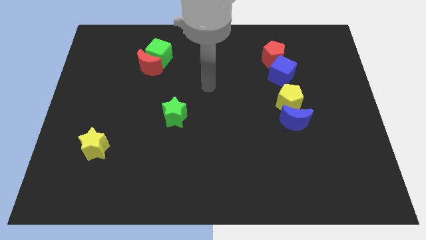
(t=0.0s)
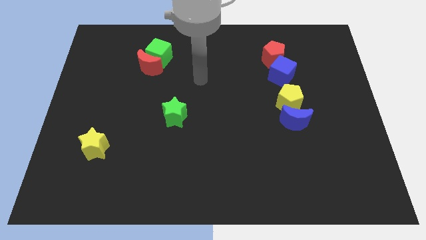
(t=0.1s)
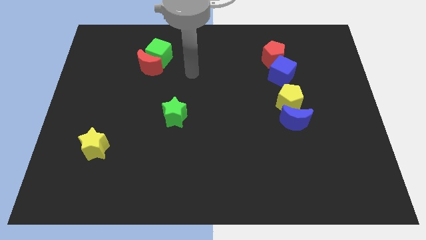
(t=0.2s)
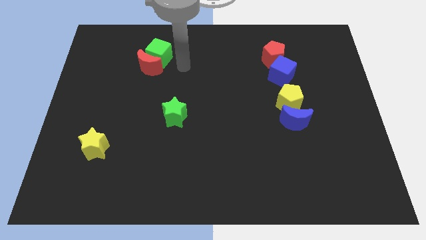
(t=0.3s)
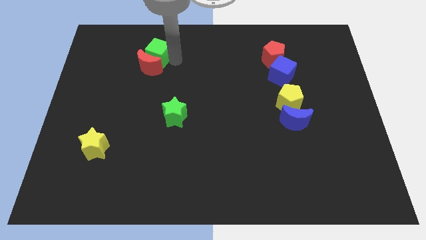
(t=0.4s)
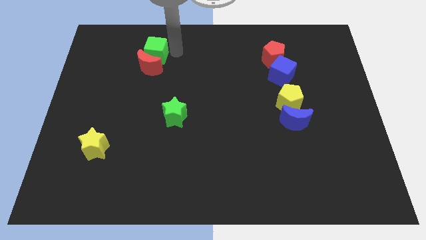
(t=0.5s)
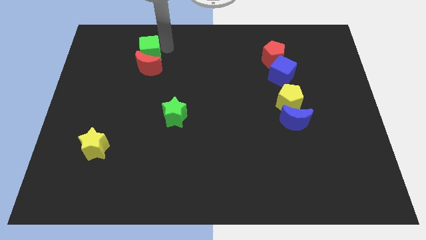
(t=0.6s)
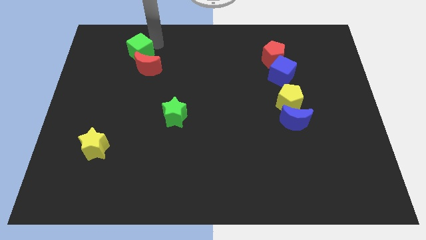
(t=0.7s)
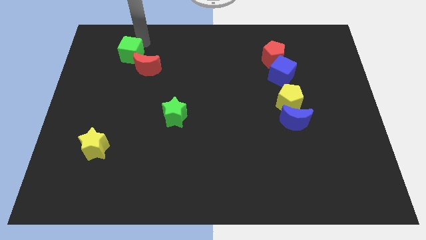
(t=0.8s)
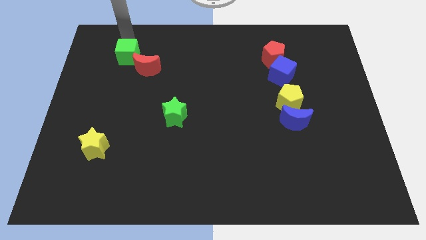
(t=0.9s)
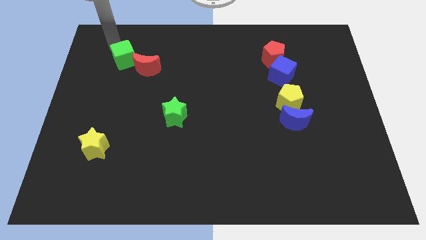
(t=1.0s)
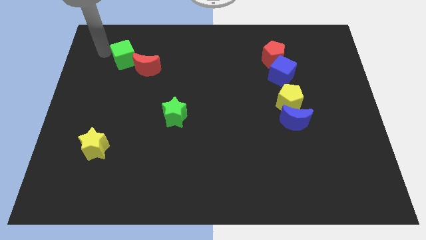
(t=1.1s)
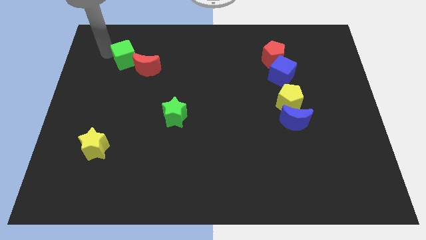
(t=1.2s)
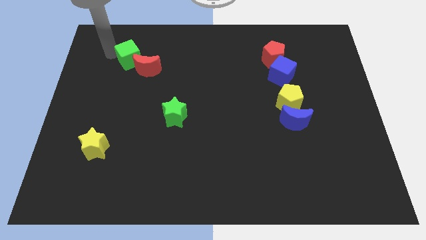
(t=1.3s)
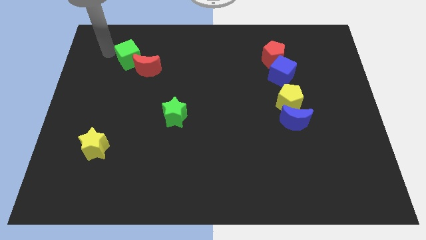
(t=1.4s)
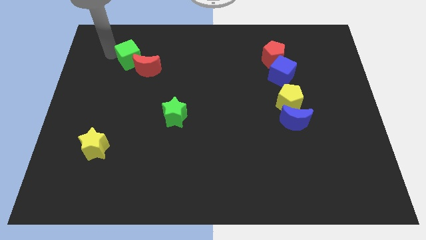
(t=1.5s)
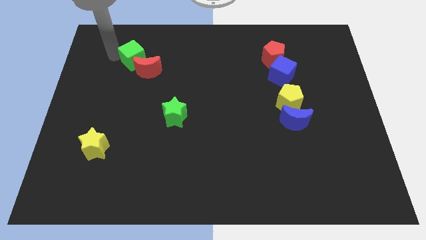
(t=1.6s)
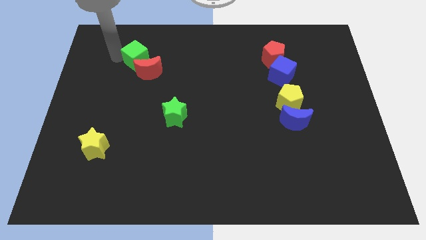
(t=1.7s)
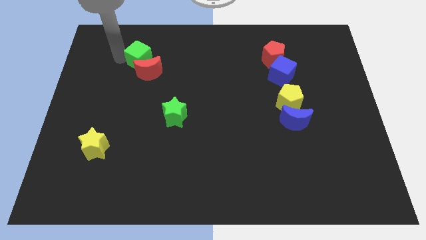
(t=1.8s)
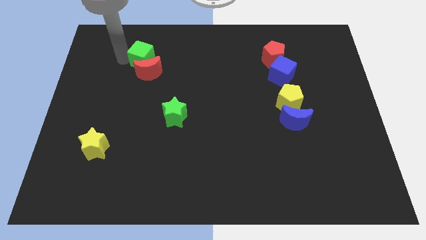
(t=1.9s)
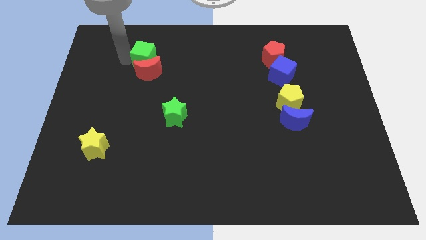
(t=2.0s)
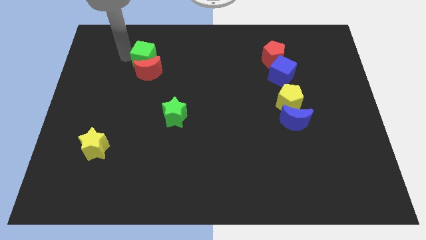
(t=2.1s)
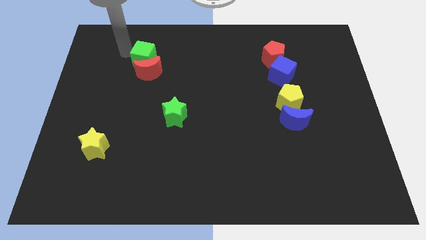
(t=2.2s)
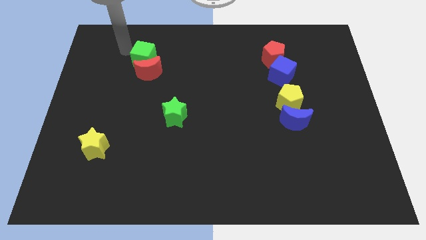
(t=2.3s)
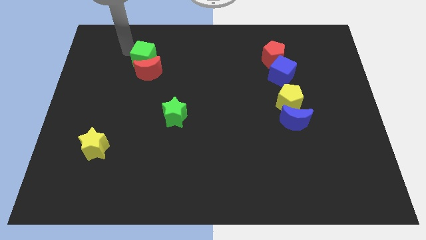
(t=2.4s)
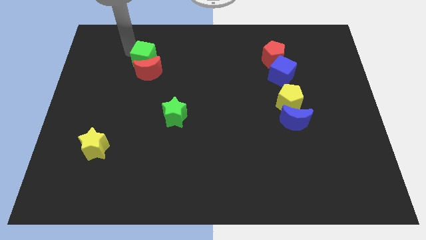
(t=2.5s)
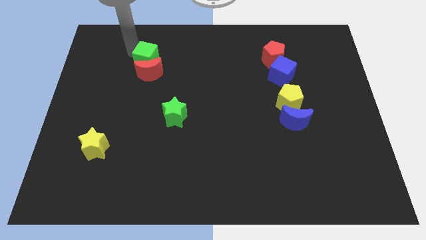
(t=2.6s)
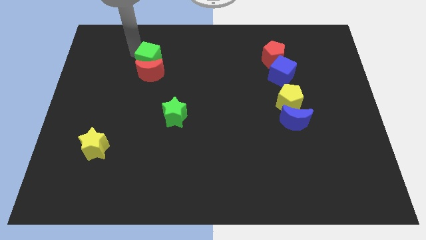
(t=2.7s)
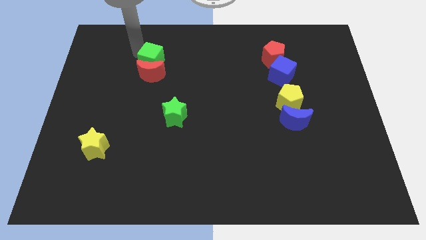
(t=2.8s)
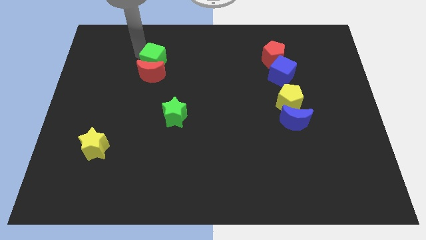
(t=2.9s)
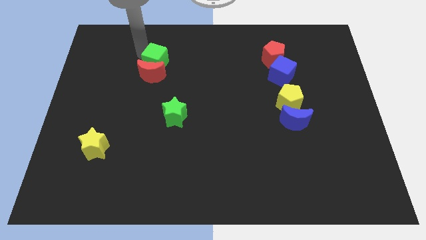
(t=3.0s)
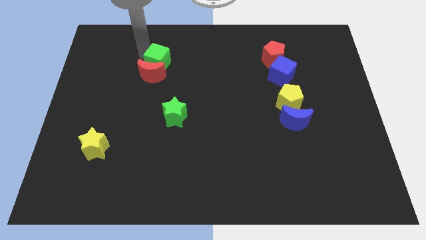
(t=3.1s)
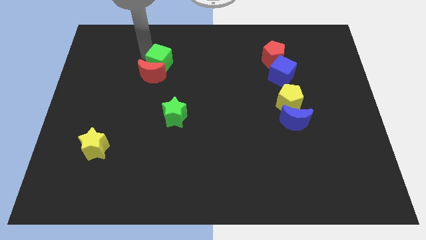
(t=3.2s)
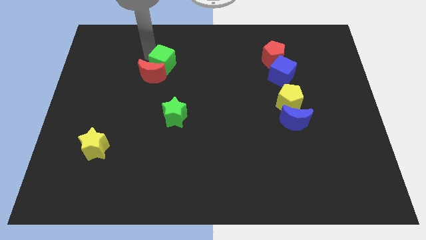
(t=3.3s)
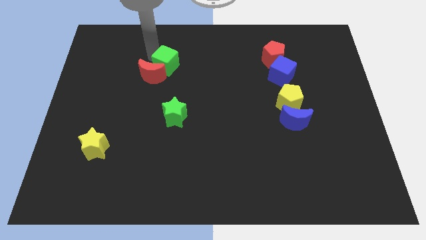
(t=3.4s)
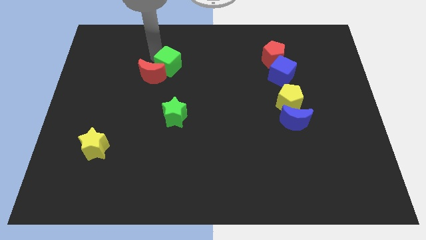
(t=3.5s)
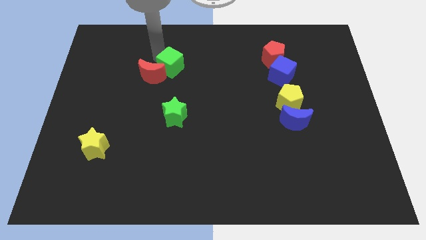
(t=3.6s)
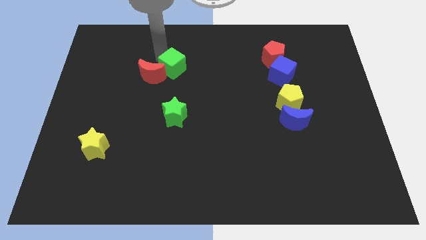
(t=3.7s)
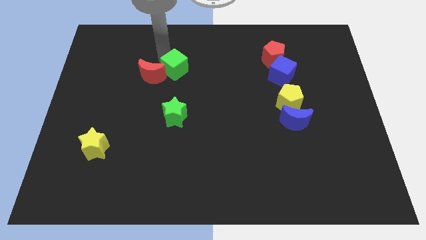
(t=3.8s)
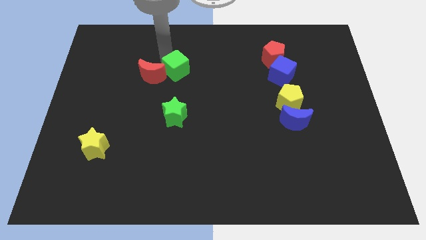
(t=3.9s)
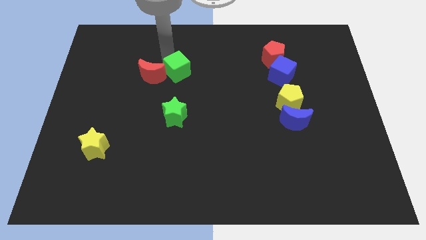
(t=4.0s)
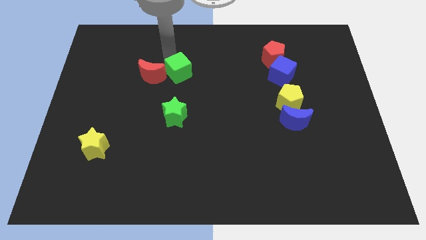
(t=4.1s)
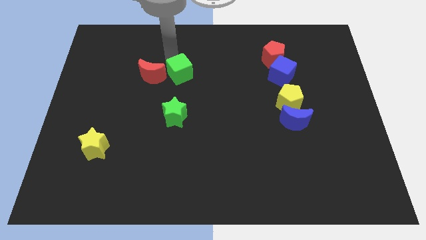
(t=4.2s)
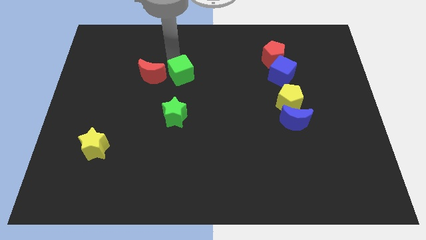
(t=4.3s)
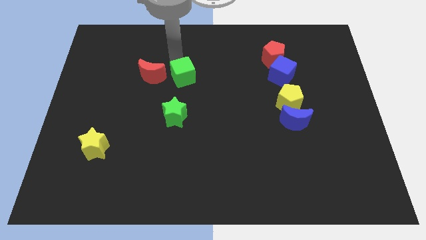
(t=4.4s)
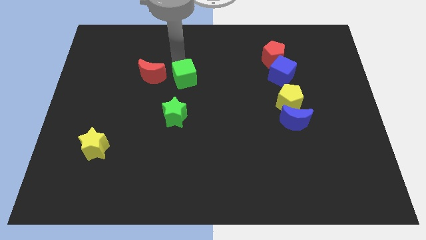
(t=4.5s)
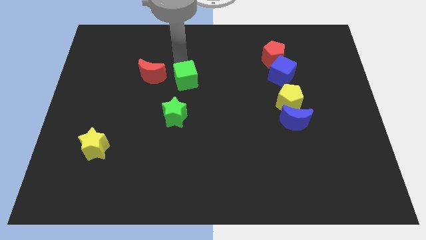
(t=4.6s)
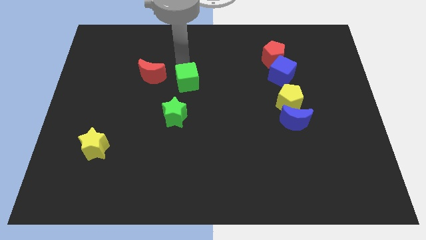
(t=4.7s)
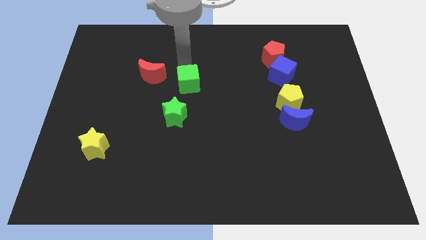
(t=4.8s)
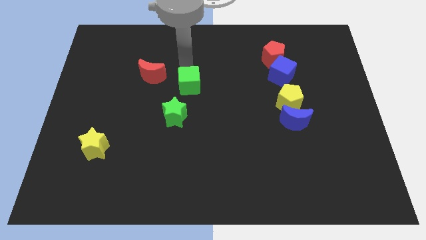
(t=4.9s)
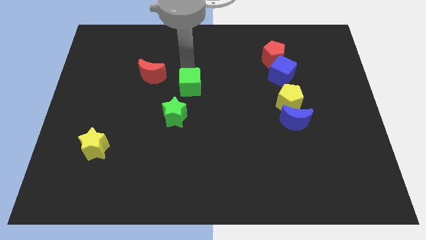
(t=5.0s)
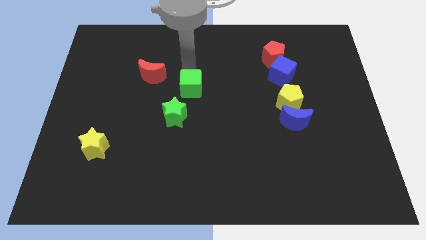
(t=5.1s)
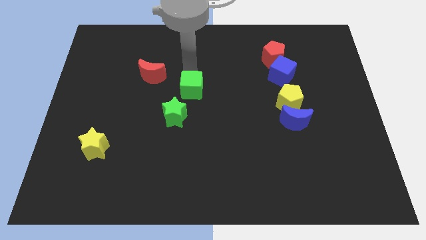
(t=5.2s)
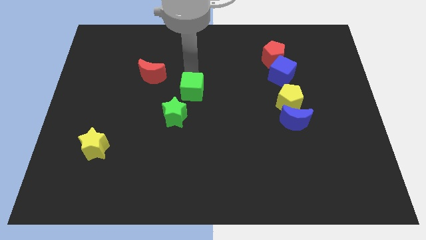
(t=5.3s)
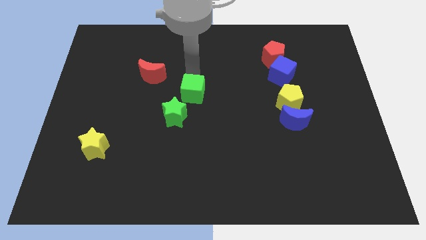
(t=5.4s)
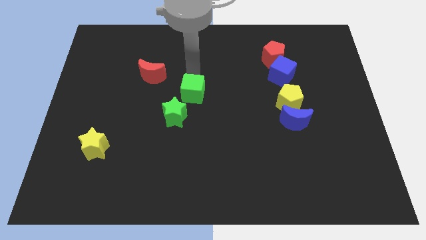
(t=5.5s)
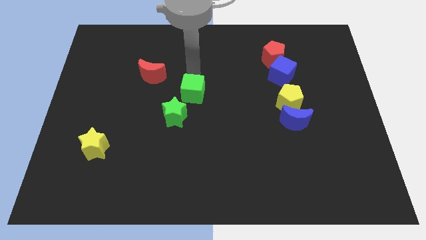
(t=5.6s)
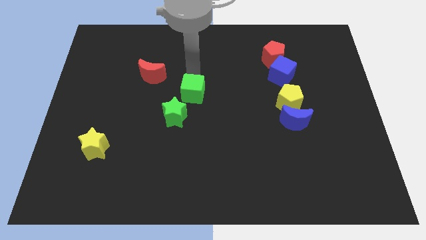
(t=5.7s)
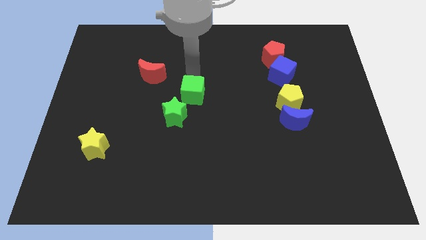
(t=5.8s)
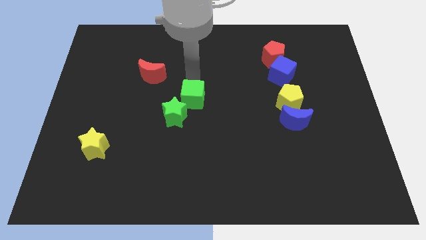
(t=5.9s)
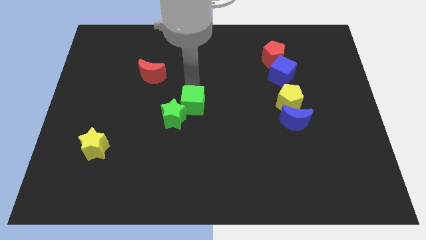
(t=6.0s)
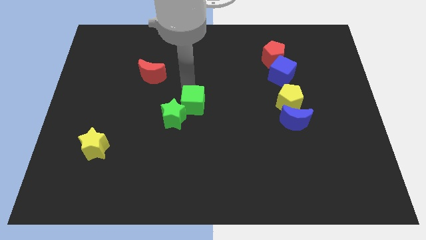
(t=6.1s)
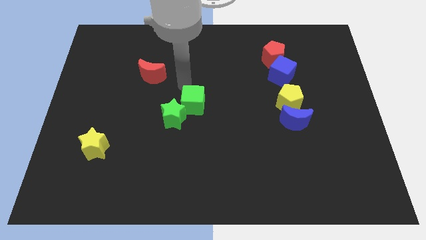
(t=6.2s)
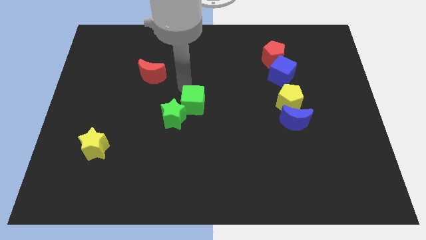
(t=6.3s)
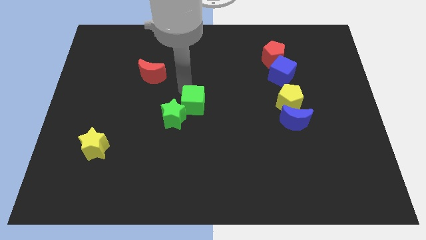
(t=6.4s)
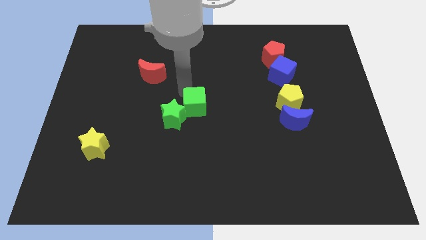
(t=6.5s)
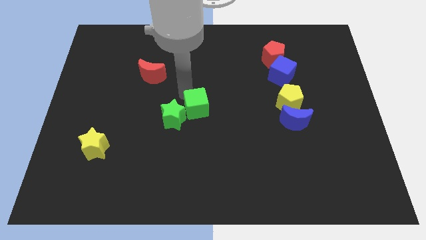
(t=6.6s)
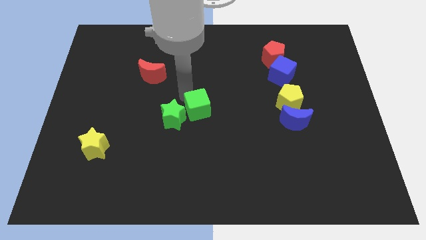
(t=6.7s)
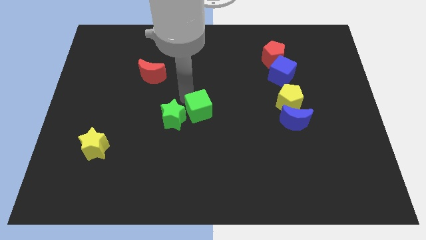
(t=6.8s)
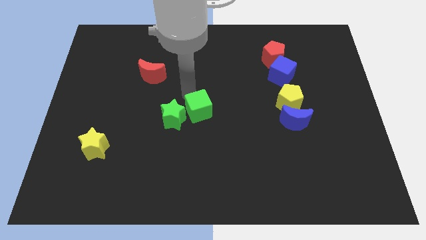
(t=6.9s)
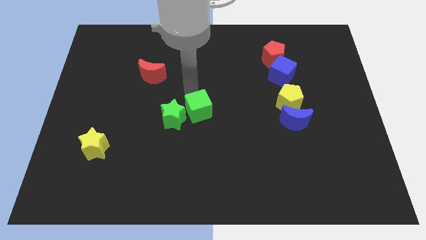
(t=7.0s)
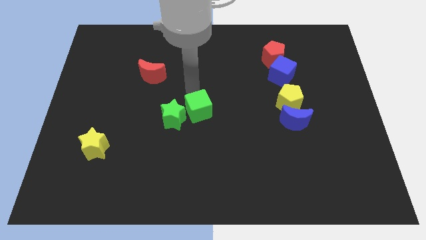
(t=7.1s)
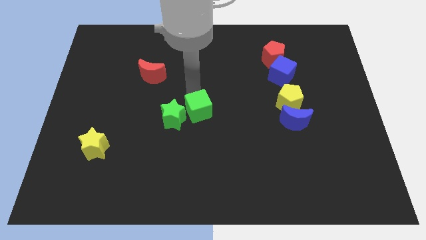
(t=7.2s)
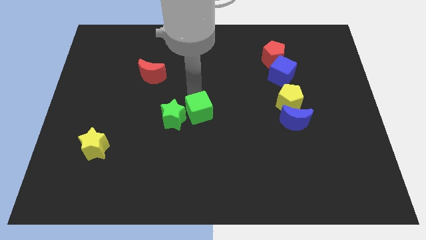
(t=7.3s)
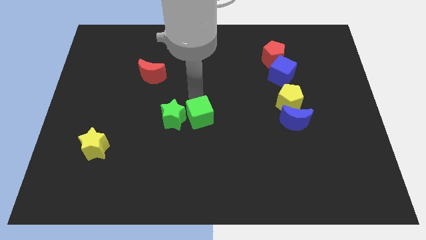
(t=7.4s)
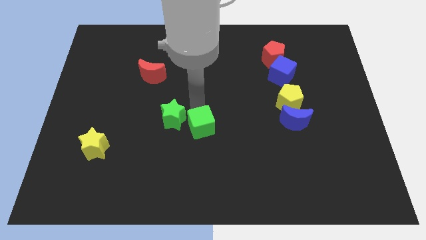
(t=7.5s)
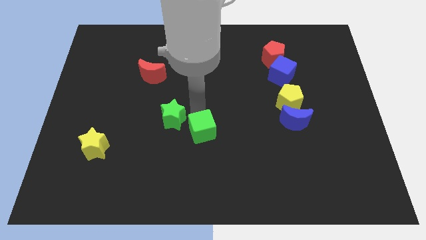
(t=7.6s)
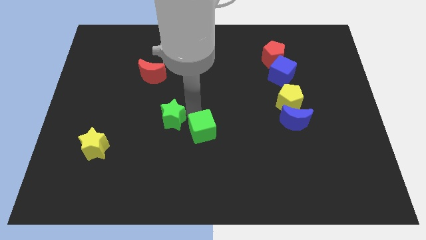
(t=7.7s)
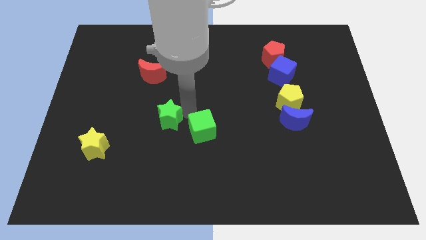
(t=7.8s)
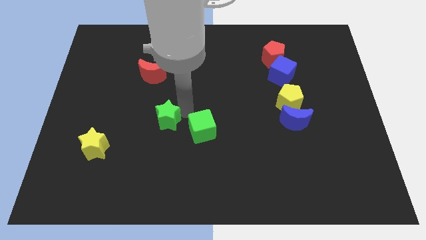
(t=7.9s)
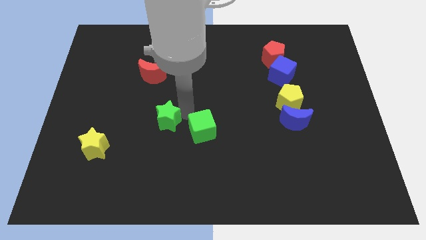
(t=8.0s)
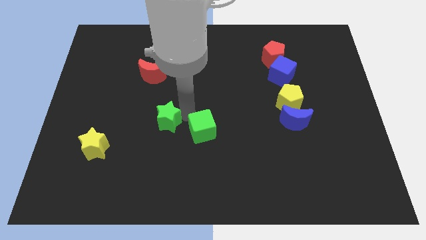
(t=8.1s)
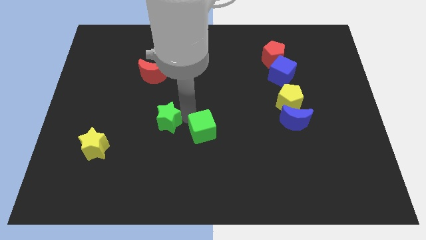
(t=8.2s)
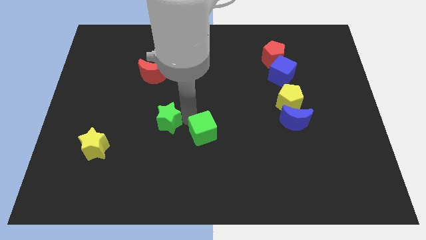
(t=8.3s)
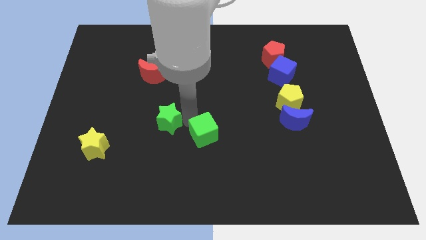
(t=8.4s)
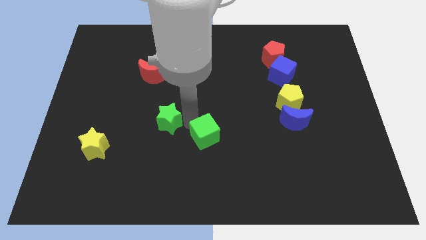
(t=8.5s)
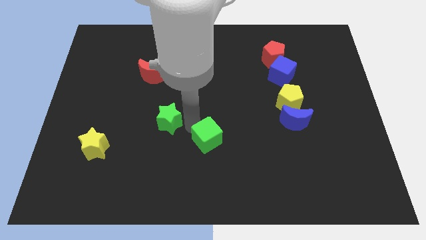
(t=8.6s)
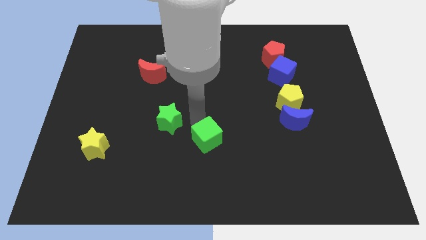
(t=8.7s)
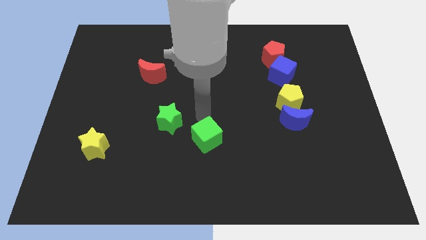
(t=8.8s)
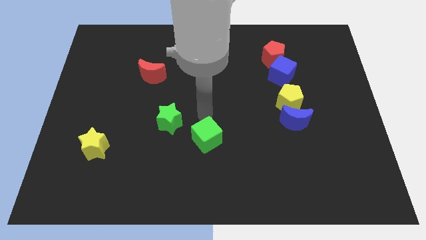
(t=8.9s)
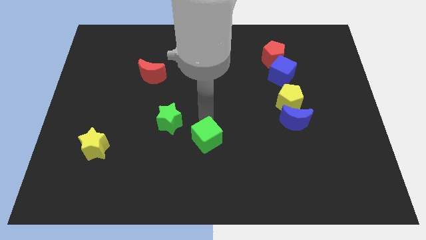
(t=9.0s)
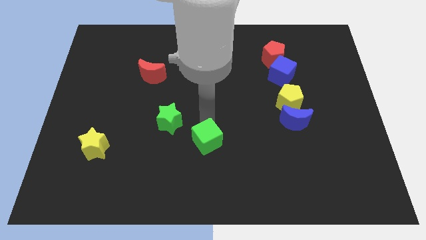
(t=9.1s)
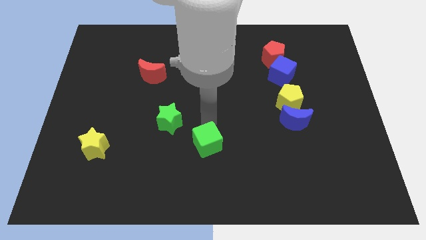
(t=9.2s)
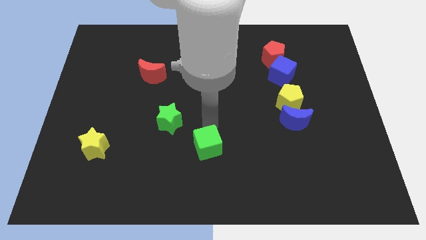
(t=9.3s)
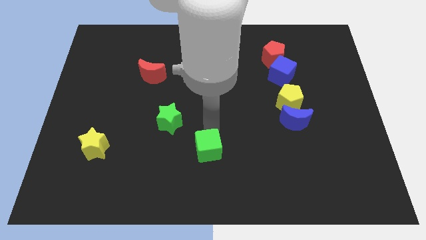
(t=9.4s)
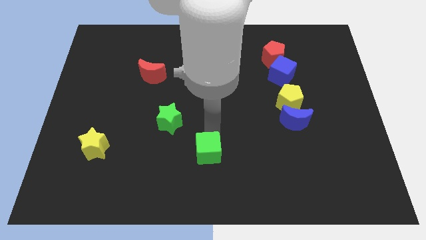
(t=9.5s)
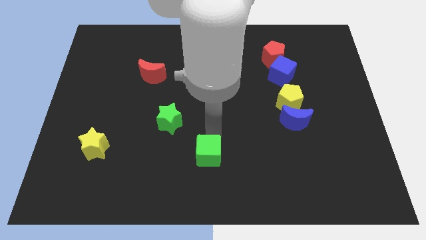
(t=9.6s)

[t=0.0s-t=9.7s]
put the green cube to the bottom
